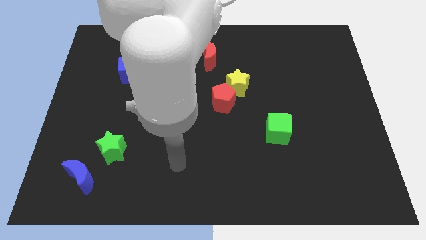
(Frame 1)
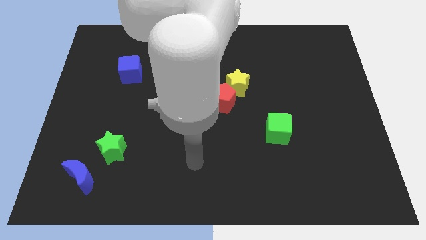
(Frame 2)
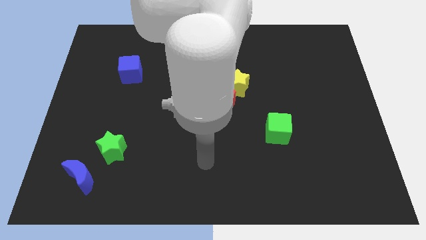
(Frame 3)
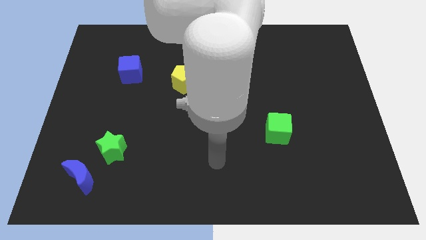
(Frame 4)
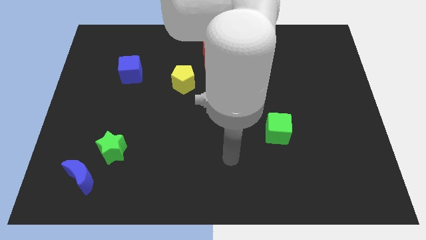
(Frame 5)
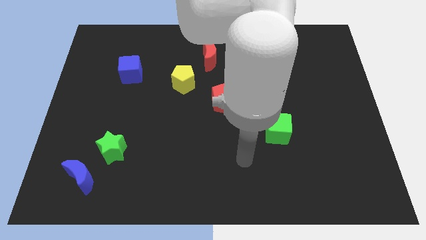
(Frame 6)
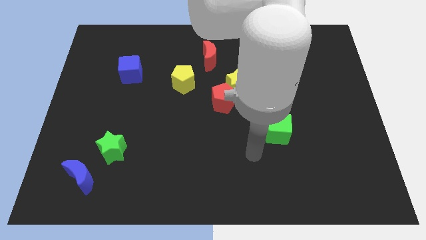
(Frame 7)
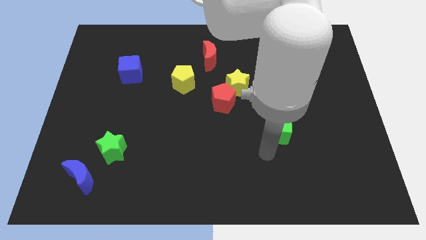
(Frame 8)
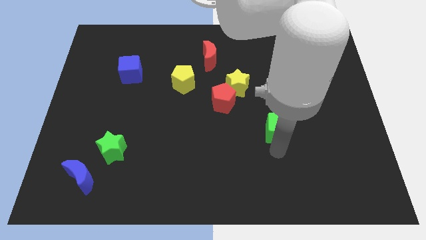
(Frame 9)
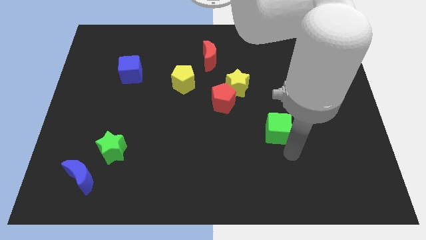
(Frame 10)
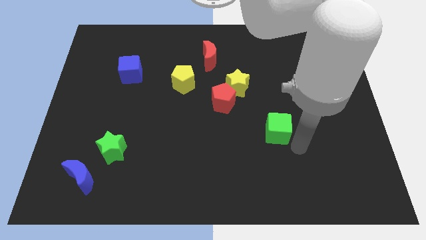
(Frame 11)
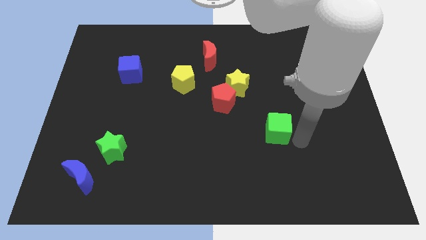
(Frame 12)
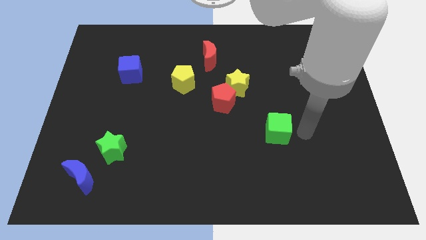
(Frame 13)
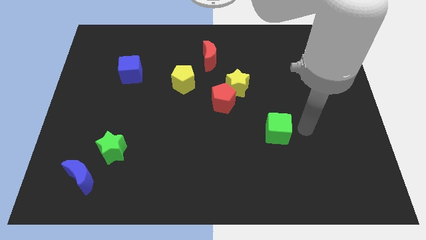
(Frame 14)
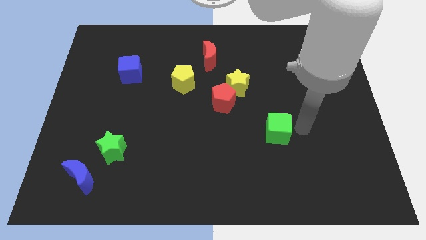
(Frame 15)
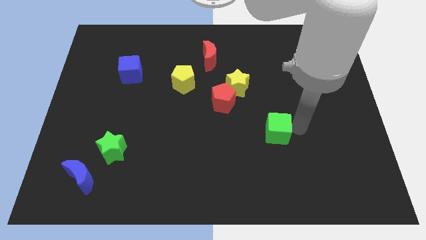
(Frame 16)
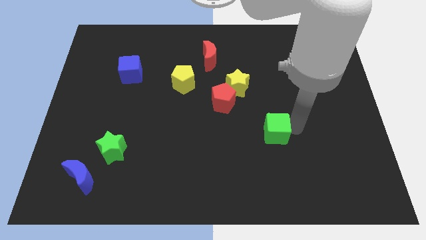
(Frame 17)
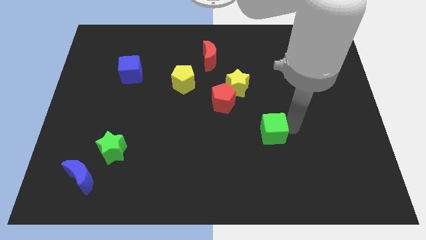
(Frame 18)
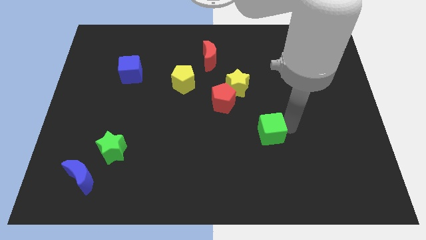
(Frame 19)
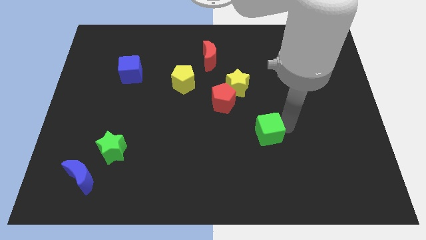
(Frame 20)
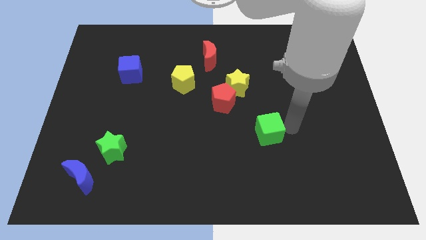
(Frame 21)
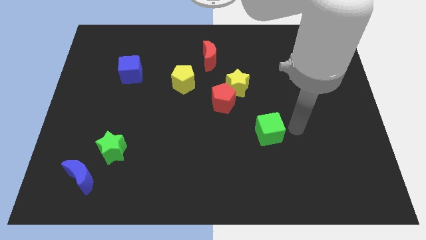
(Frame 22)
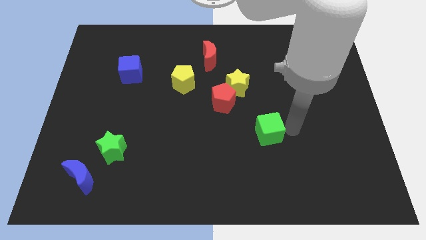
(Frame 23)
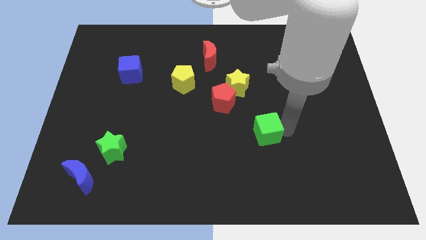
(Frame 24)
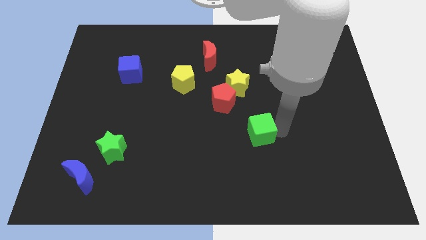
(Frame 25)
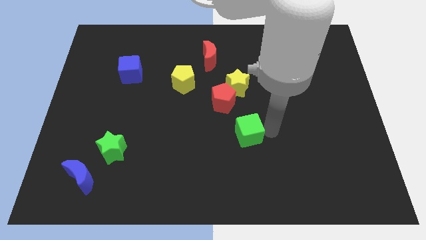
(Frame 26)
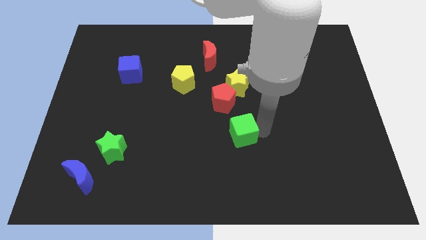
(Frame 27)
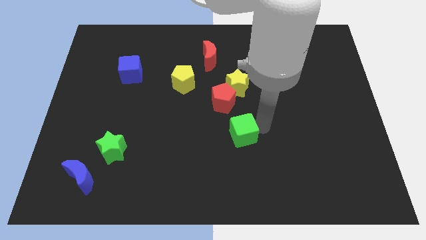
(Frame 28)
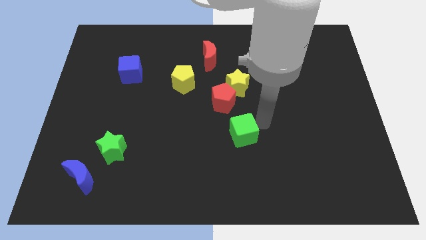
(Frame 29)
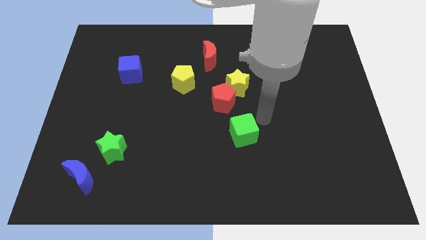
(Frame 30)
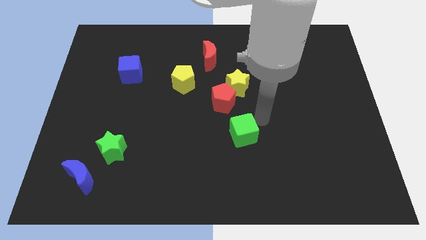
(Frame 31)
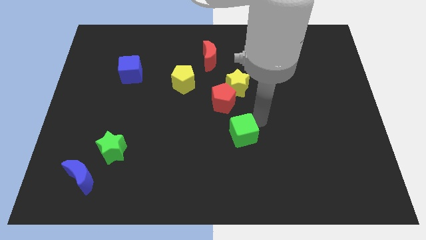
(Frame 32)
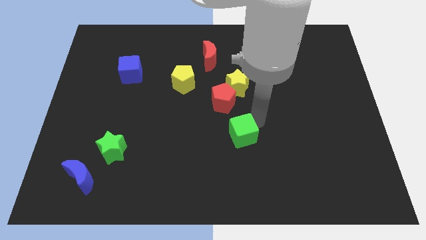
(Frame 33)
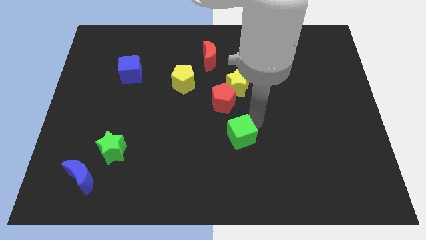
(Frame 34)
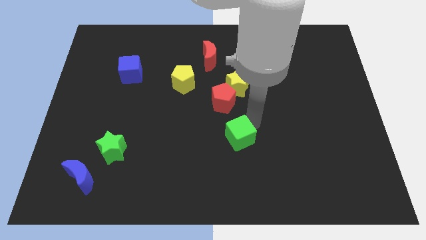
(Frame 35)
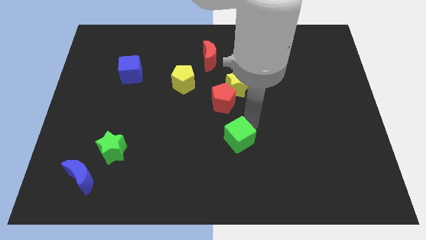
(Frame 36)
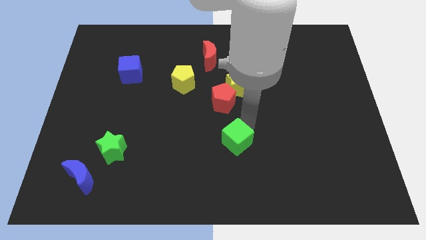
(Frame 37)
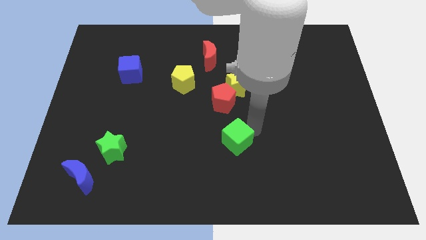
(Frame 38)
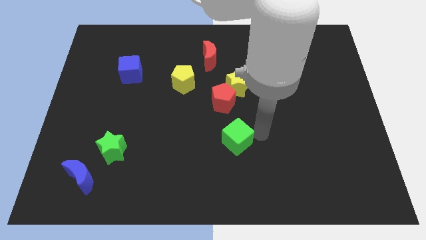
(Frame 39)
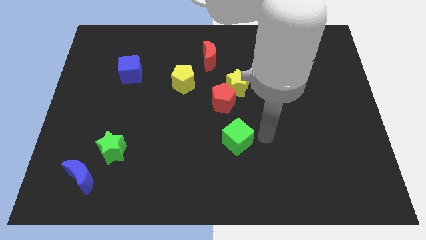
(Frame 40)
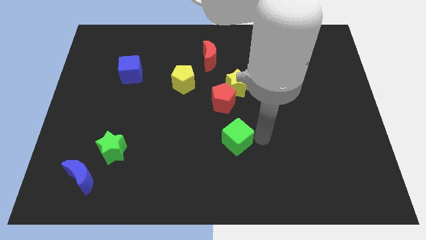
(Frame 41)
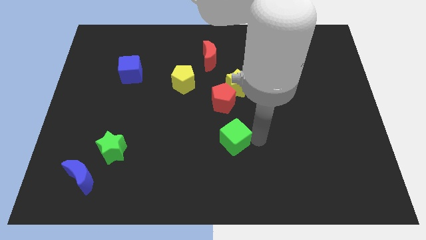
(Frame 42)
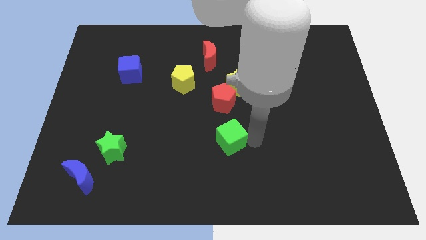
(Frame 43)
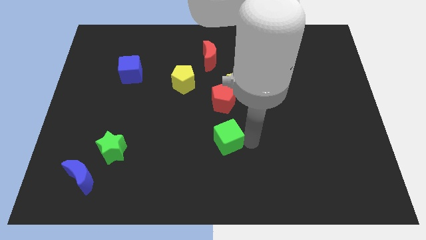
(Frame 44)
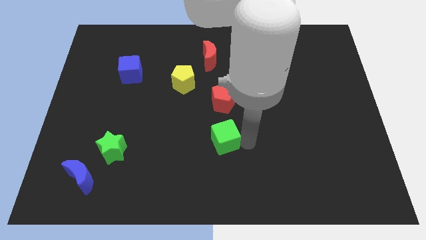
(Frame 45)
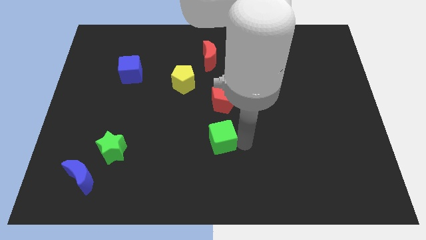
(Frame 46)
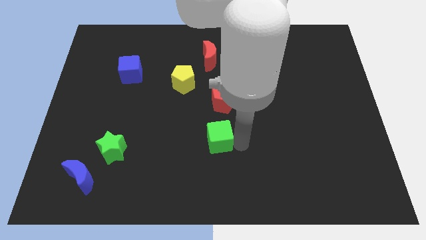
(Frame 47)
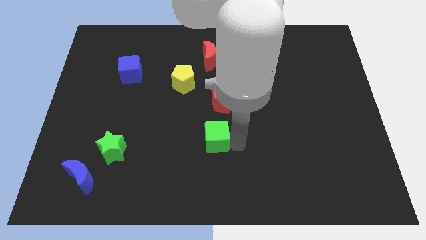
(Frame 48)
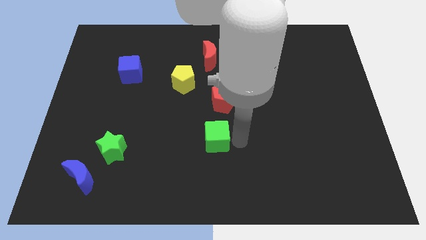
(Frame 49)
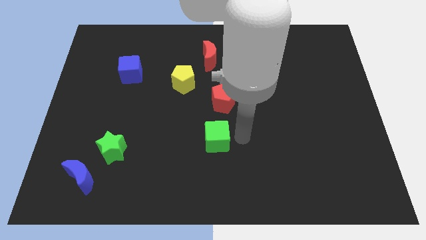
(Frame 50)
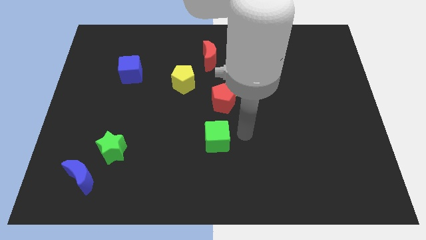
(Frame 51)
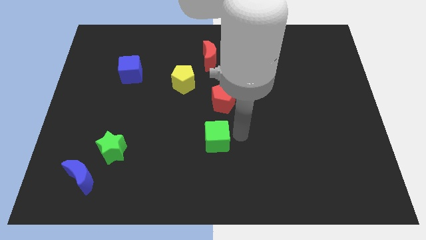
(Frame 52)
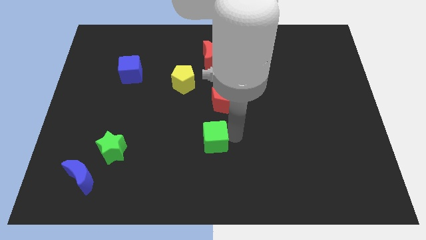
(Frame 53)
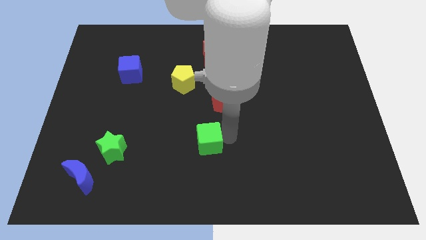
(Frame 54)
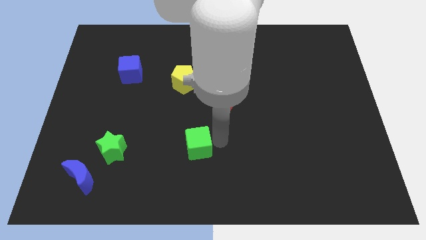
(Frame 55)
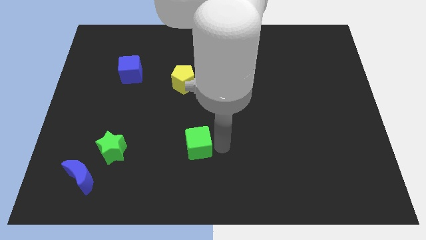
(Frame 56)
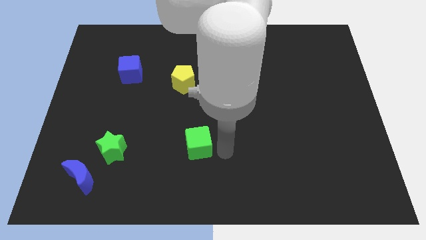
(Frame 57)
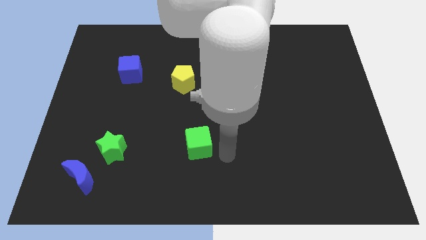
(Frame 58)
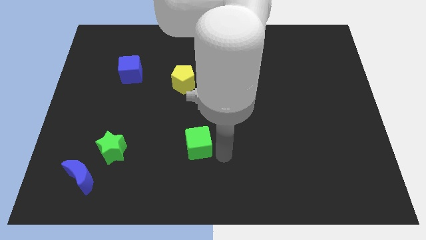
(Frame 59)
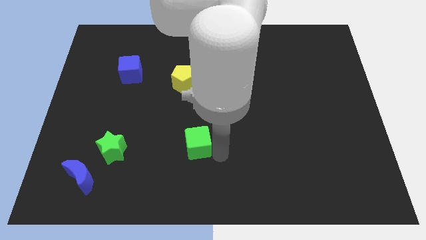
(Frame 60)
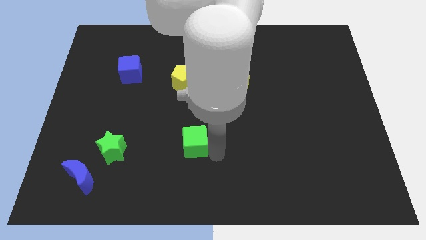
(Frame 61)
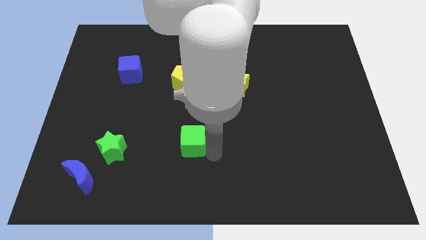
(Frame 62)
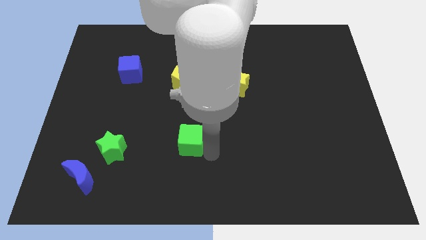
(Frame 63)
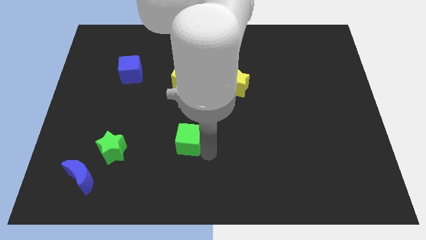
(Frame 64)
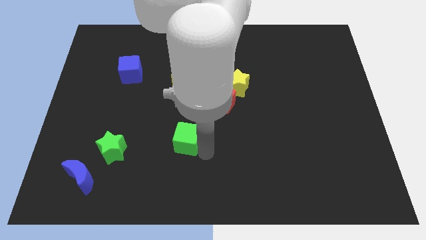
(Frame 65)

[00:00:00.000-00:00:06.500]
slide the green cube left

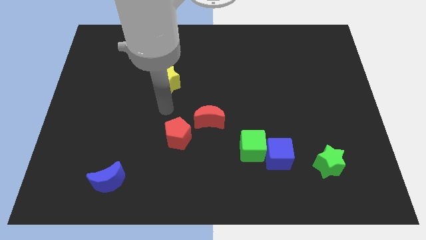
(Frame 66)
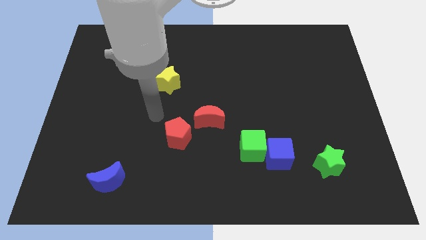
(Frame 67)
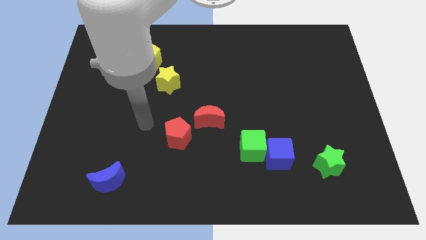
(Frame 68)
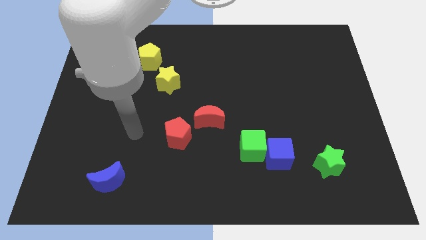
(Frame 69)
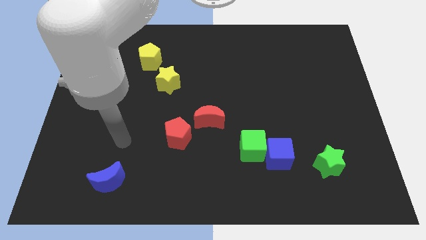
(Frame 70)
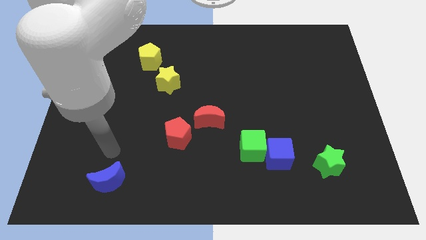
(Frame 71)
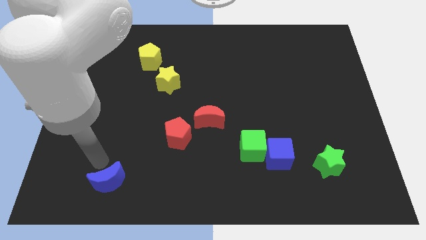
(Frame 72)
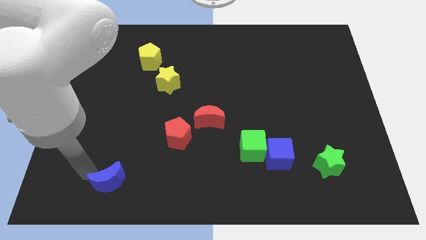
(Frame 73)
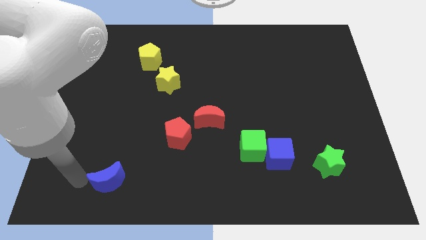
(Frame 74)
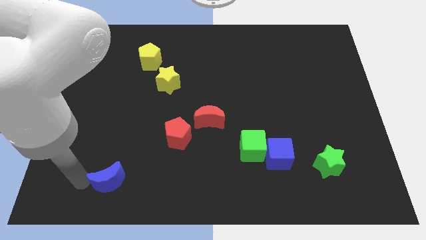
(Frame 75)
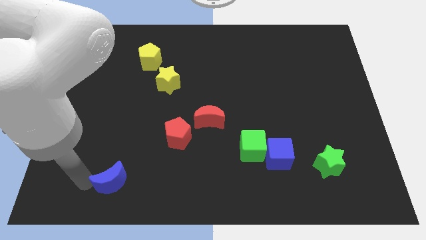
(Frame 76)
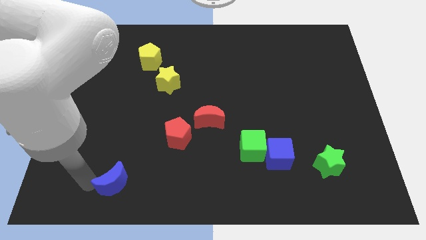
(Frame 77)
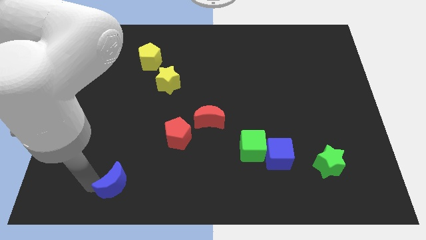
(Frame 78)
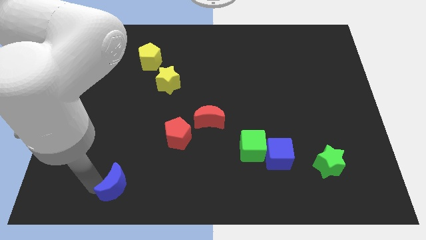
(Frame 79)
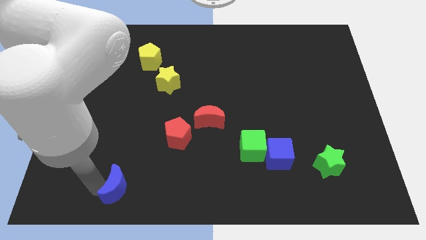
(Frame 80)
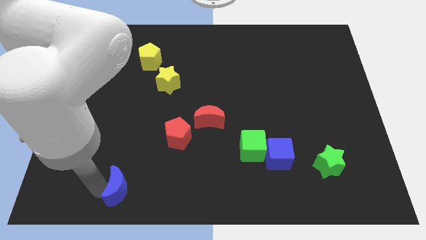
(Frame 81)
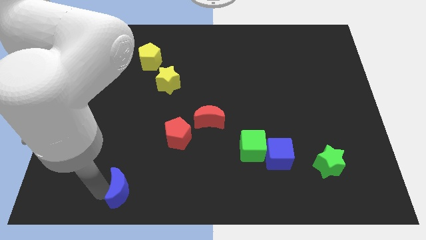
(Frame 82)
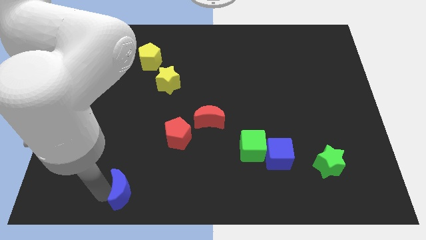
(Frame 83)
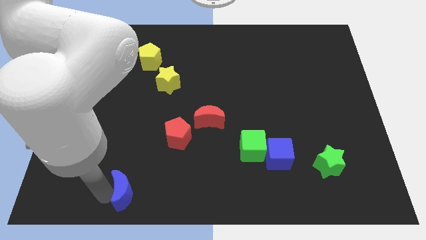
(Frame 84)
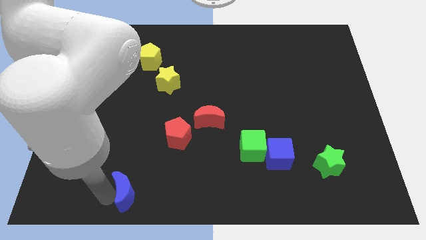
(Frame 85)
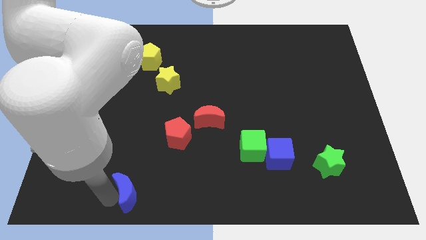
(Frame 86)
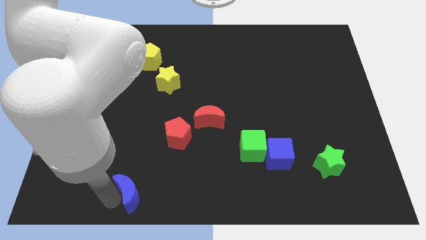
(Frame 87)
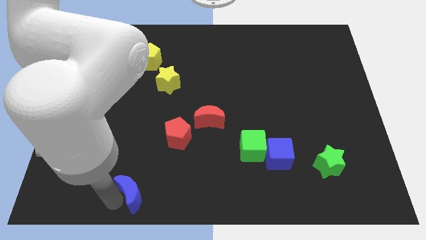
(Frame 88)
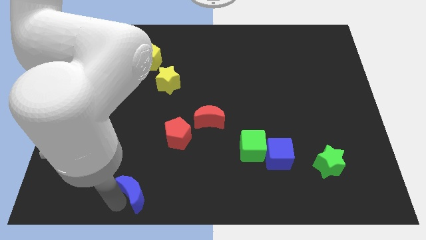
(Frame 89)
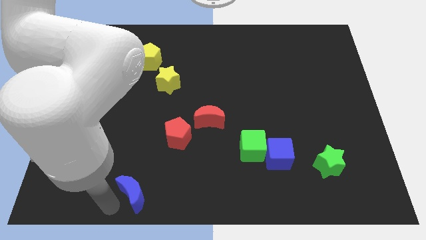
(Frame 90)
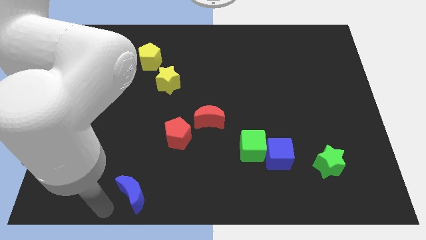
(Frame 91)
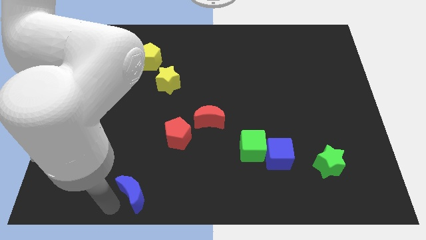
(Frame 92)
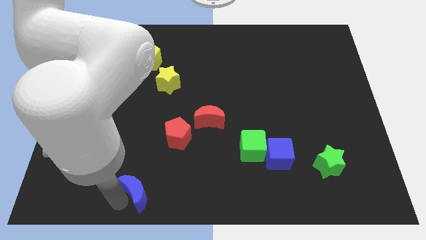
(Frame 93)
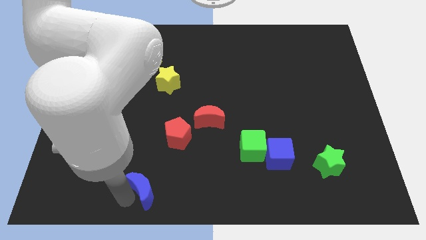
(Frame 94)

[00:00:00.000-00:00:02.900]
slide the blue moon to the right somewhat
